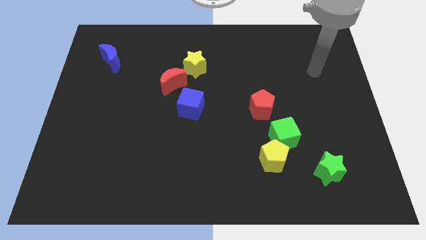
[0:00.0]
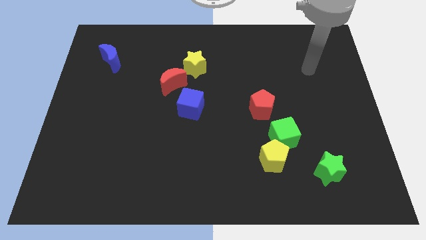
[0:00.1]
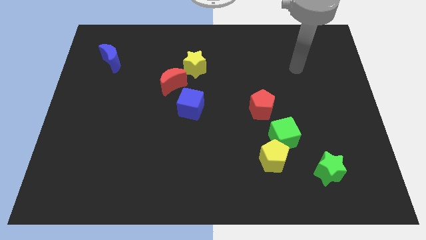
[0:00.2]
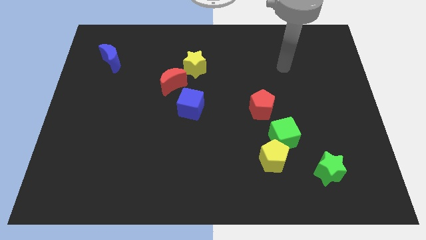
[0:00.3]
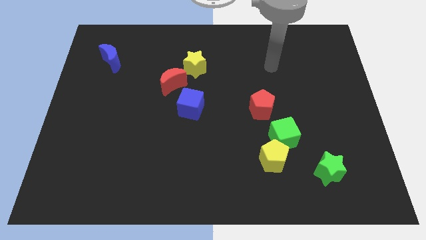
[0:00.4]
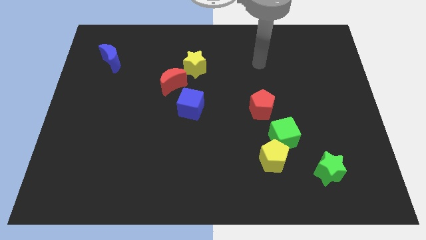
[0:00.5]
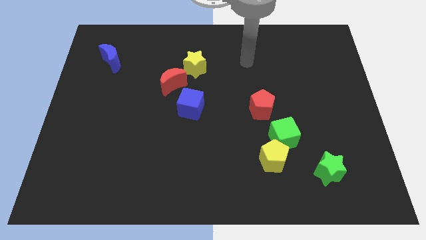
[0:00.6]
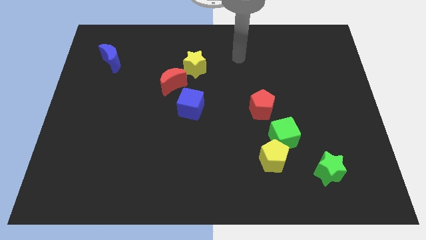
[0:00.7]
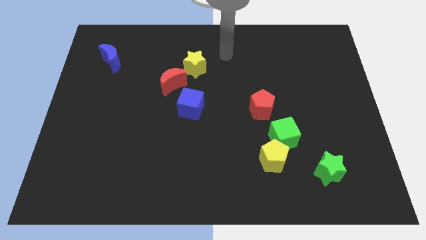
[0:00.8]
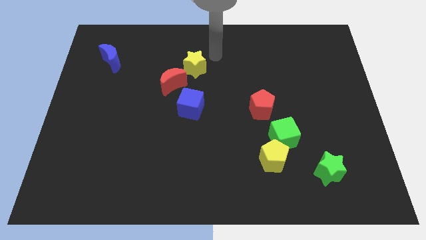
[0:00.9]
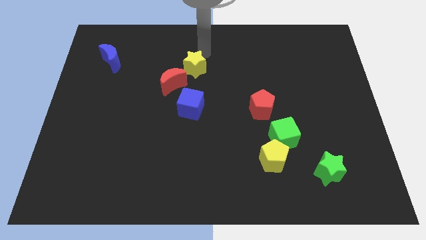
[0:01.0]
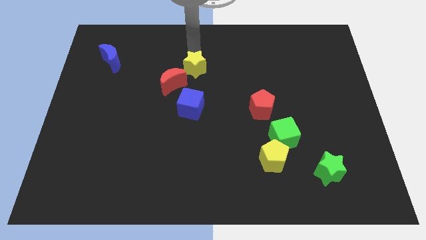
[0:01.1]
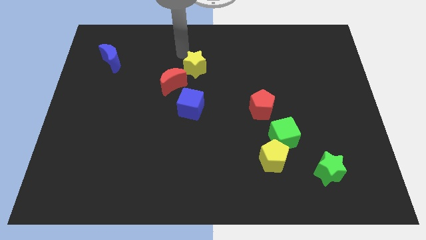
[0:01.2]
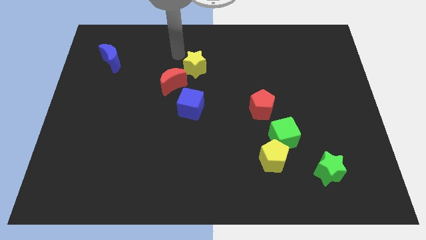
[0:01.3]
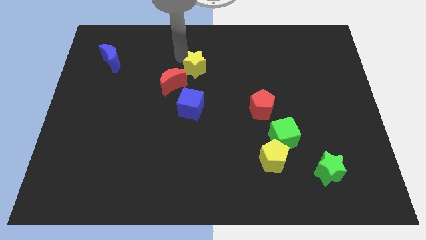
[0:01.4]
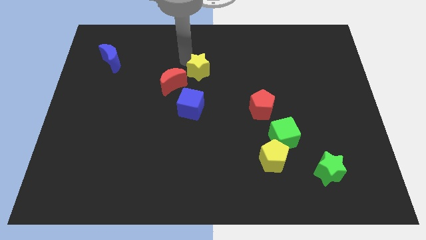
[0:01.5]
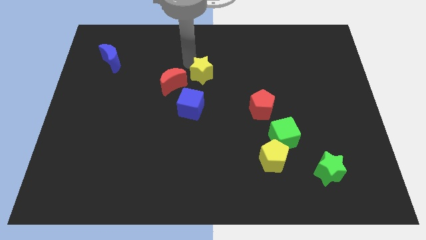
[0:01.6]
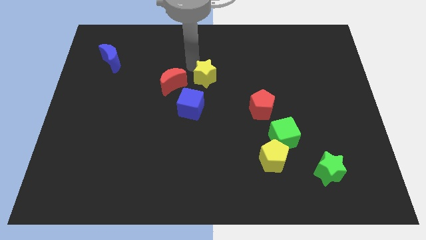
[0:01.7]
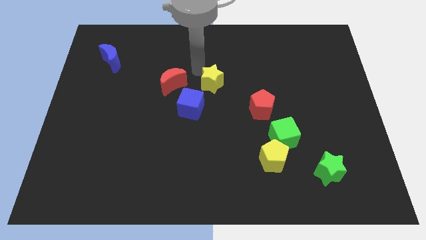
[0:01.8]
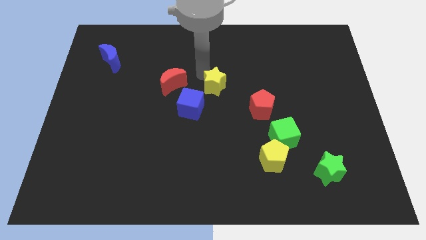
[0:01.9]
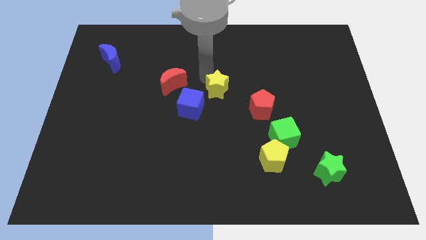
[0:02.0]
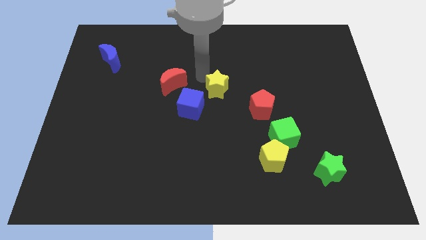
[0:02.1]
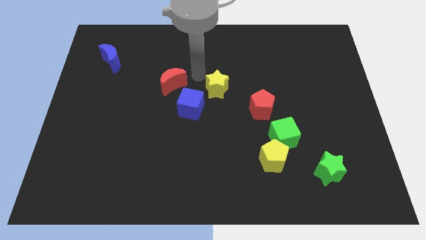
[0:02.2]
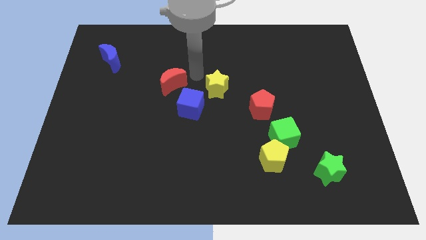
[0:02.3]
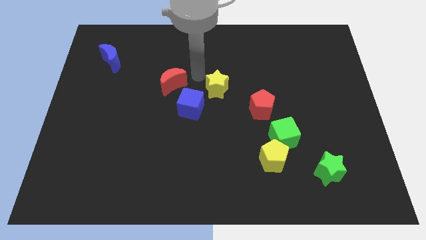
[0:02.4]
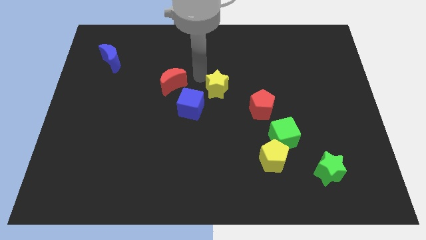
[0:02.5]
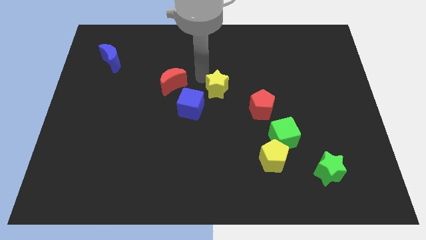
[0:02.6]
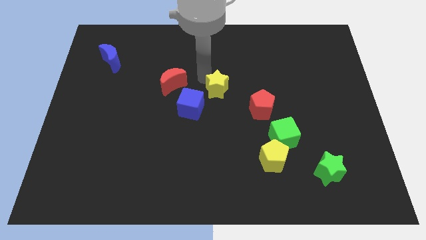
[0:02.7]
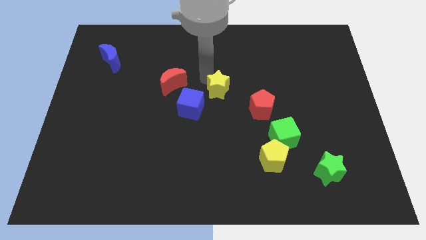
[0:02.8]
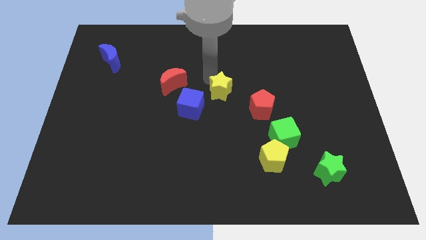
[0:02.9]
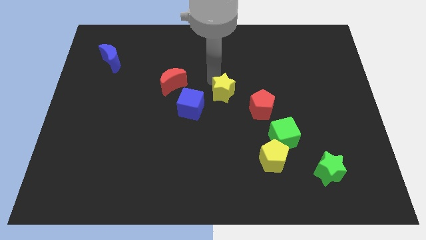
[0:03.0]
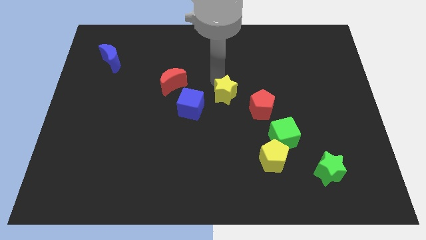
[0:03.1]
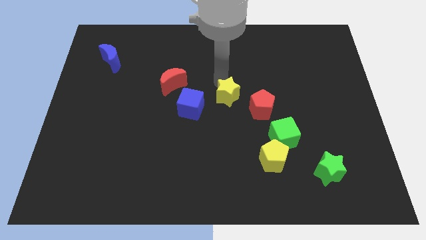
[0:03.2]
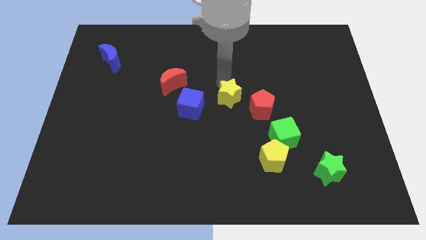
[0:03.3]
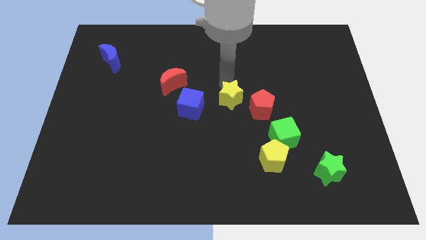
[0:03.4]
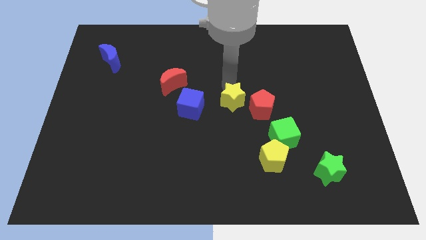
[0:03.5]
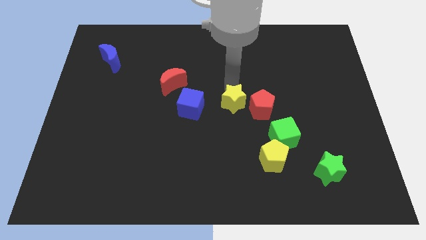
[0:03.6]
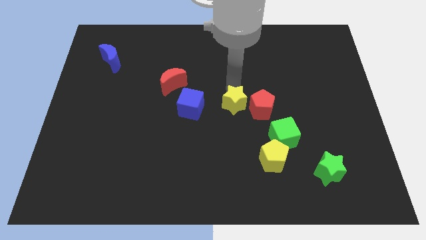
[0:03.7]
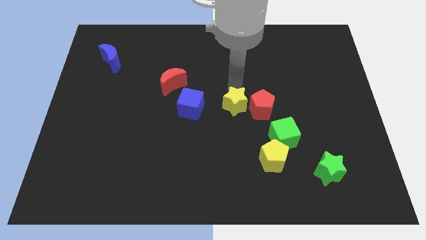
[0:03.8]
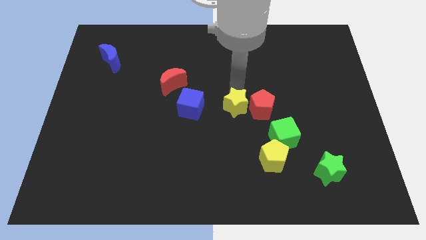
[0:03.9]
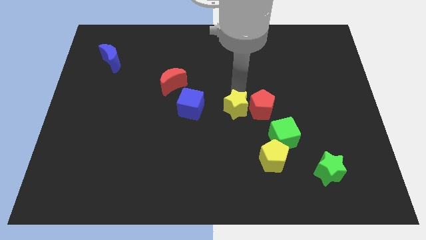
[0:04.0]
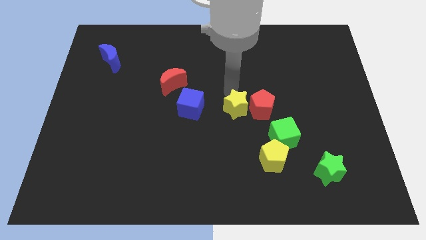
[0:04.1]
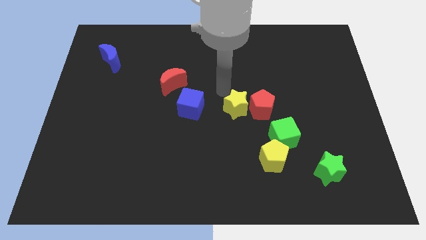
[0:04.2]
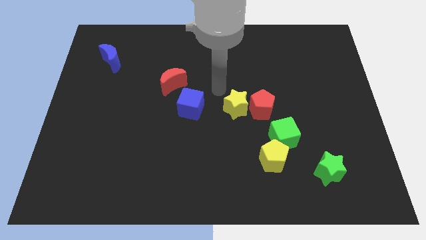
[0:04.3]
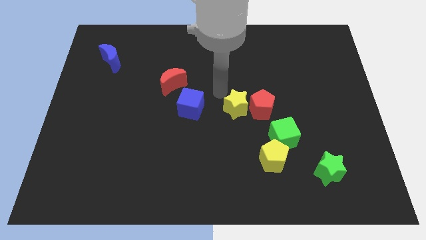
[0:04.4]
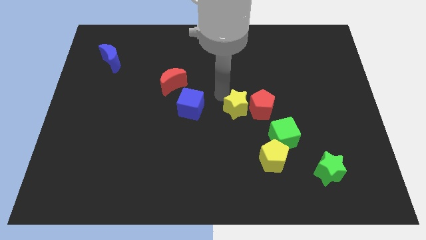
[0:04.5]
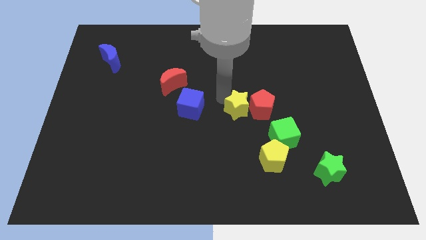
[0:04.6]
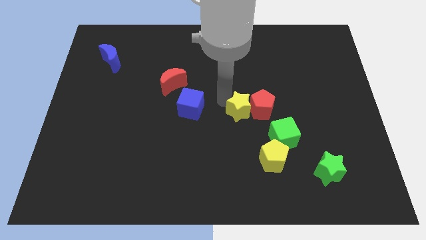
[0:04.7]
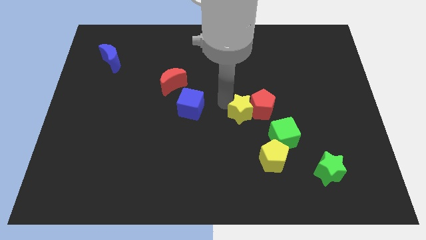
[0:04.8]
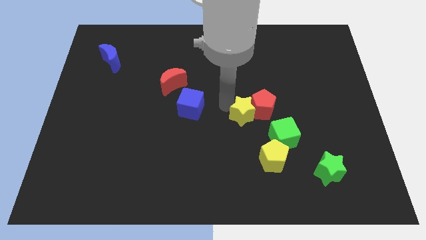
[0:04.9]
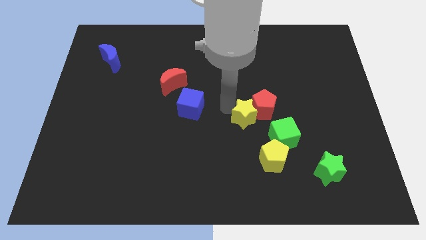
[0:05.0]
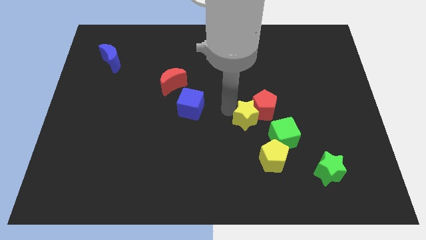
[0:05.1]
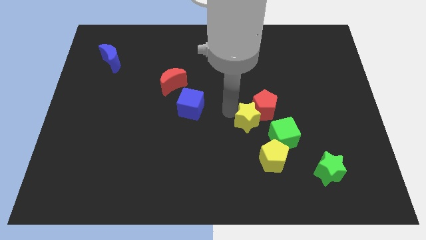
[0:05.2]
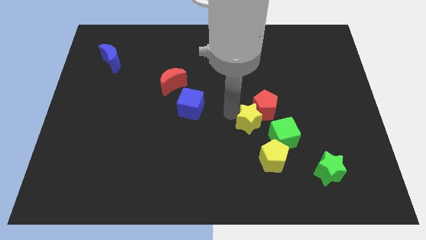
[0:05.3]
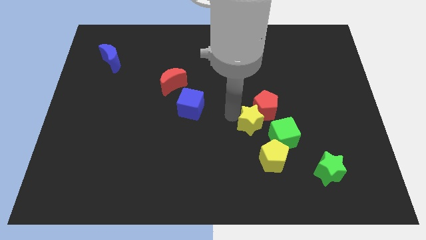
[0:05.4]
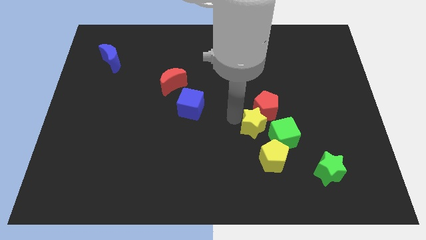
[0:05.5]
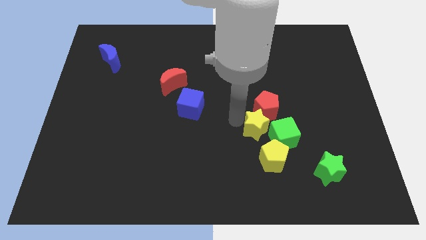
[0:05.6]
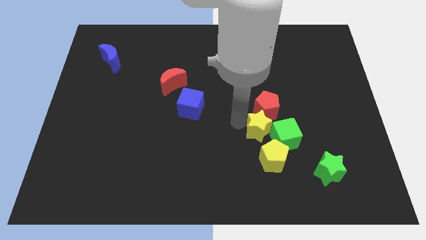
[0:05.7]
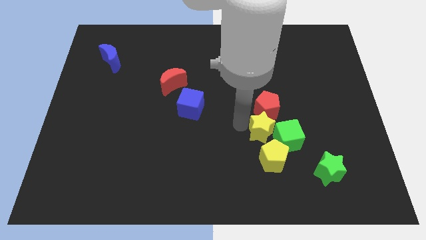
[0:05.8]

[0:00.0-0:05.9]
slide the yellow star close to the green cube

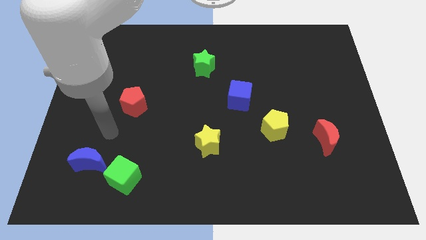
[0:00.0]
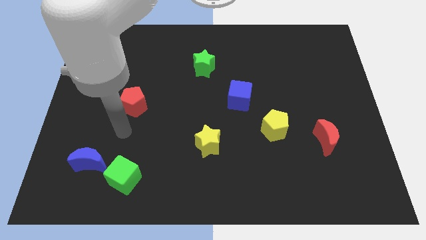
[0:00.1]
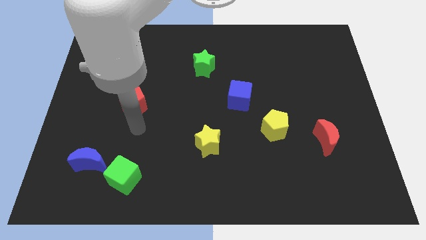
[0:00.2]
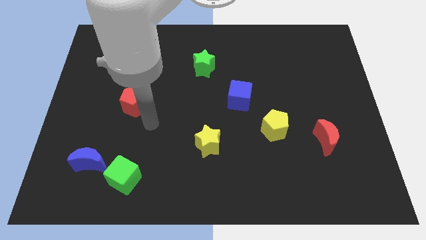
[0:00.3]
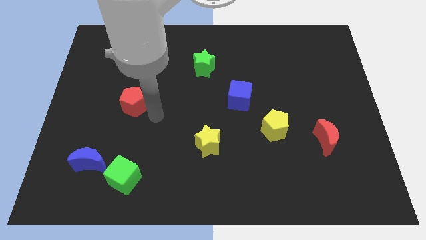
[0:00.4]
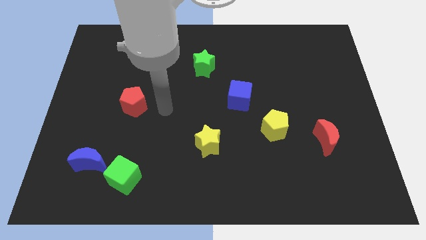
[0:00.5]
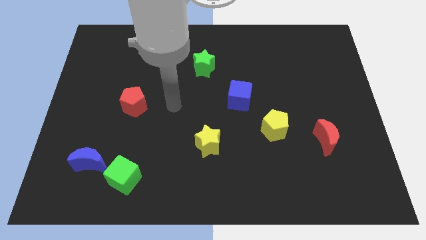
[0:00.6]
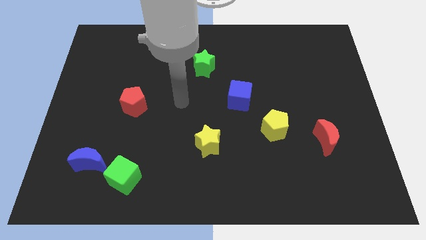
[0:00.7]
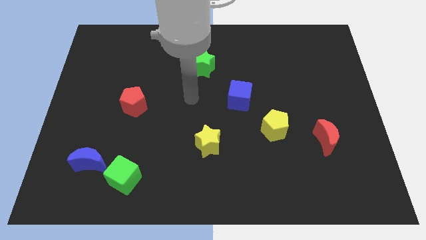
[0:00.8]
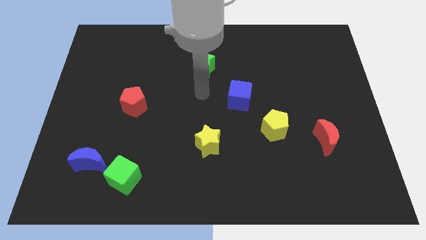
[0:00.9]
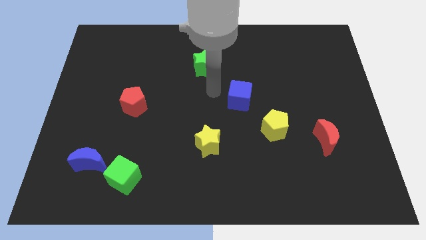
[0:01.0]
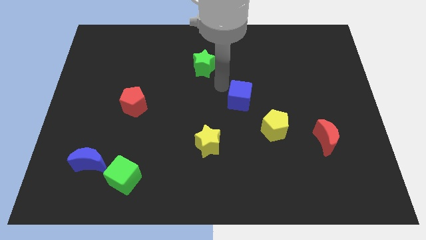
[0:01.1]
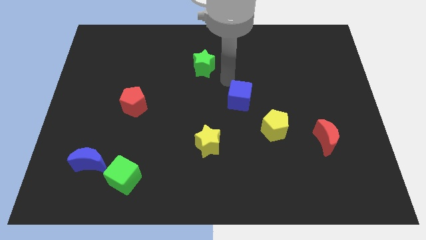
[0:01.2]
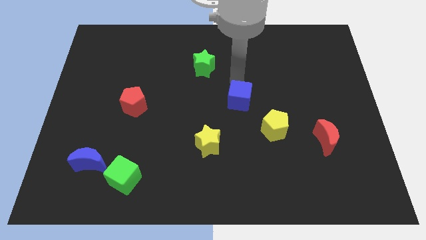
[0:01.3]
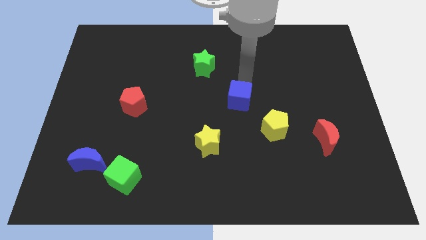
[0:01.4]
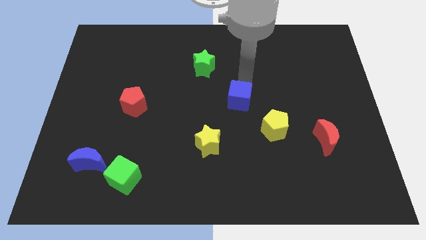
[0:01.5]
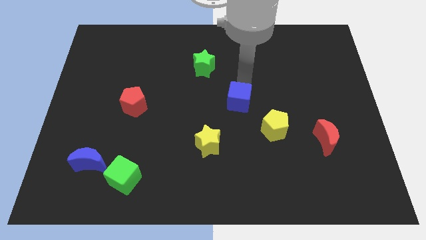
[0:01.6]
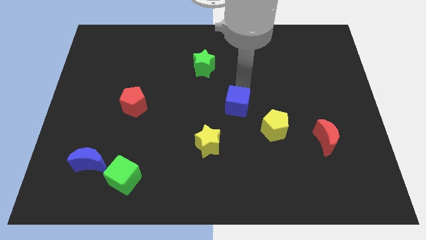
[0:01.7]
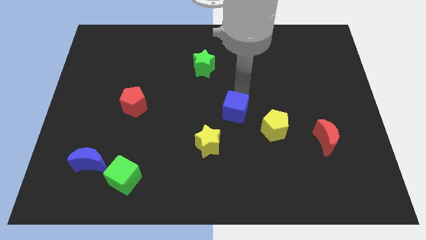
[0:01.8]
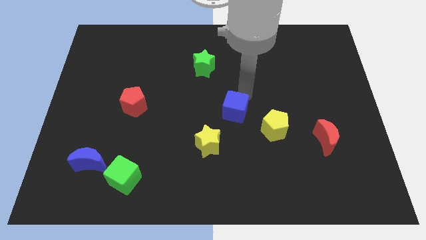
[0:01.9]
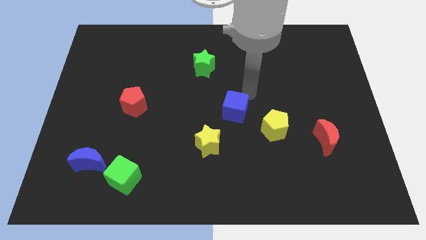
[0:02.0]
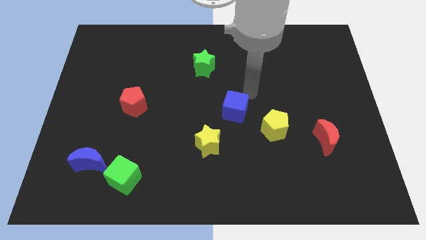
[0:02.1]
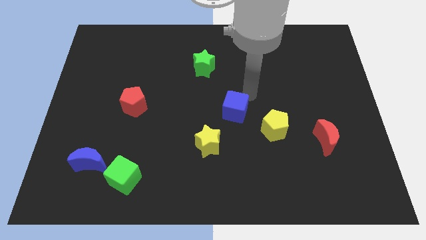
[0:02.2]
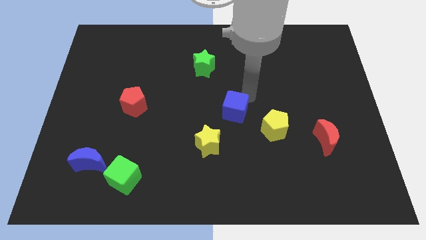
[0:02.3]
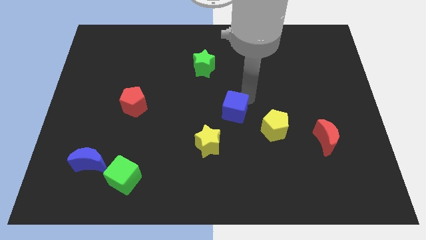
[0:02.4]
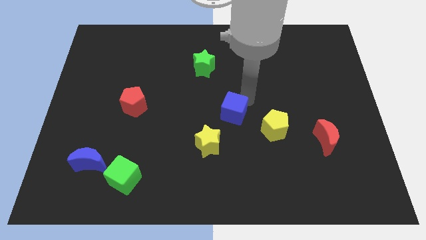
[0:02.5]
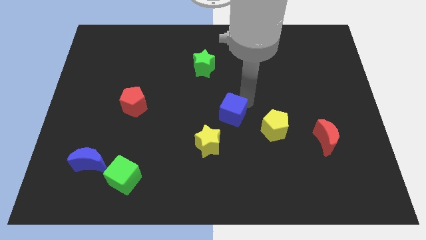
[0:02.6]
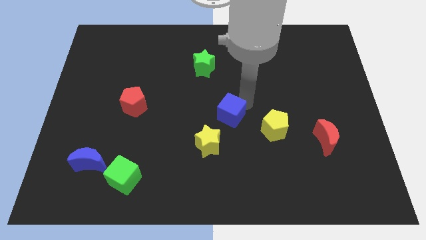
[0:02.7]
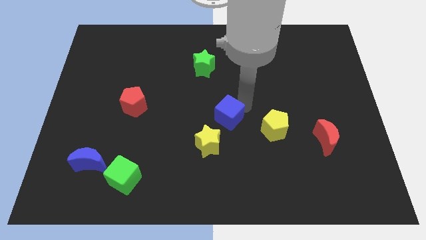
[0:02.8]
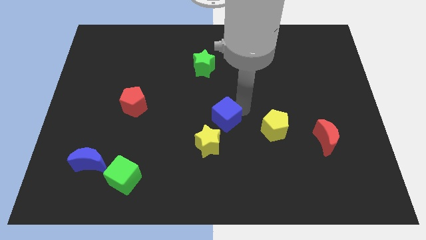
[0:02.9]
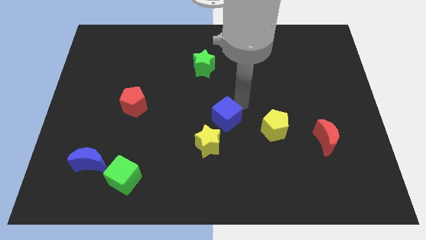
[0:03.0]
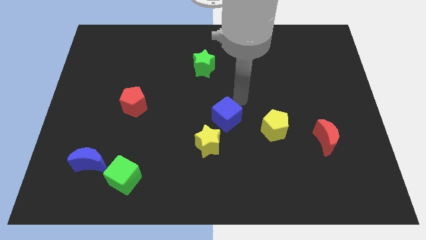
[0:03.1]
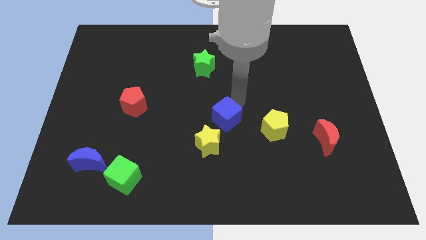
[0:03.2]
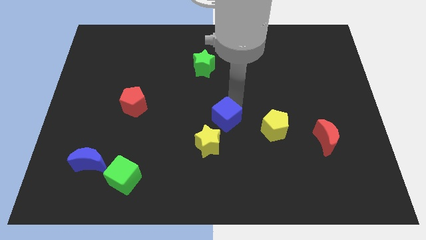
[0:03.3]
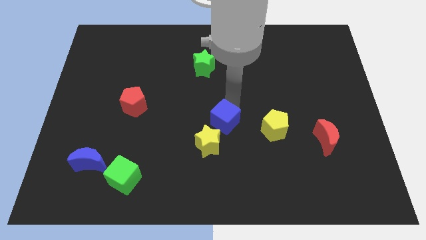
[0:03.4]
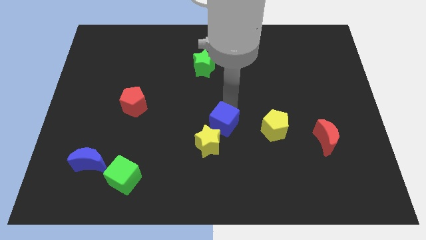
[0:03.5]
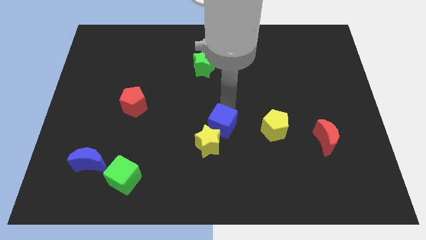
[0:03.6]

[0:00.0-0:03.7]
put the blue cube to the yellow star
